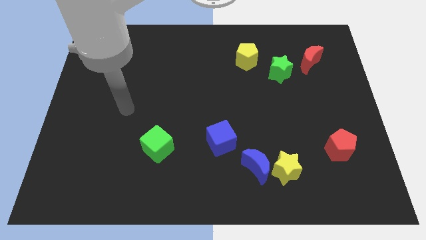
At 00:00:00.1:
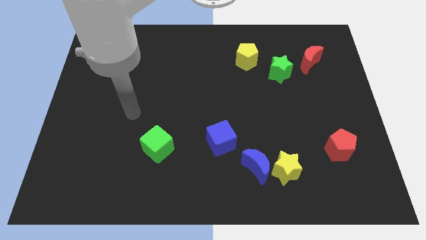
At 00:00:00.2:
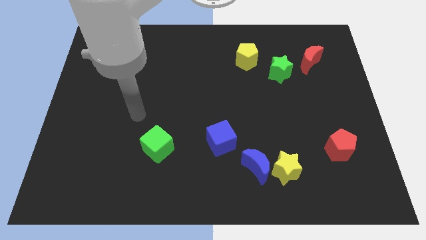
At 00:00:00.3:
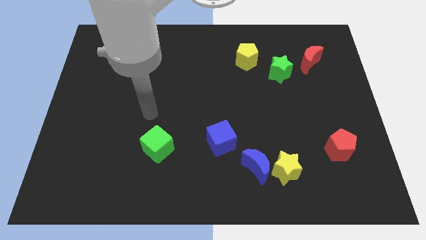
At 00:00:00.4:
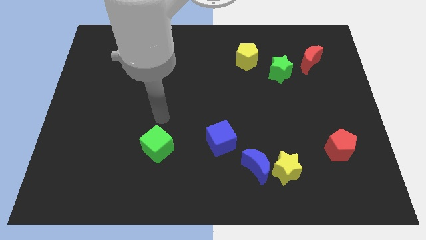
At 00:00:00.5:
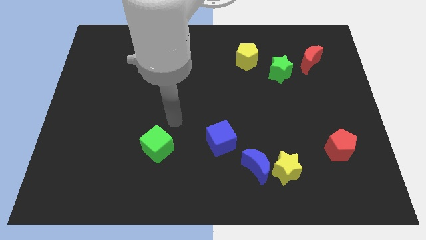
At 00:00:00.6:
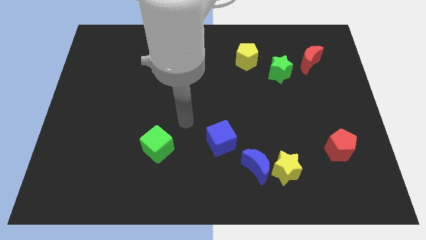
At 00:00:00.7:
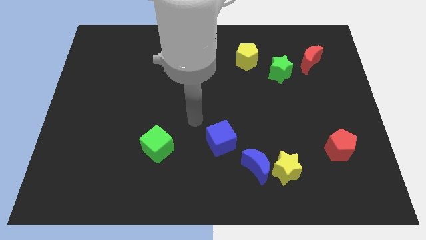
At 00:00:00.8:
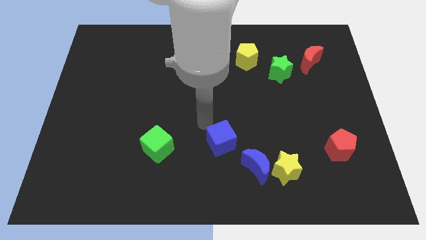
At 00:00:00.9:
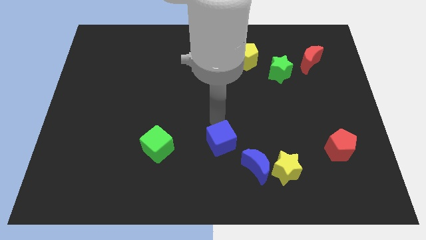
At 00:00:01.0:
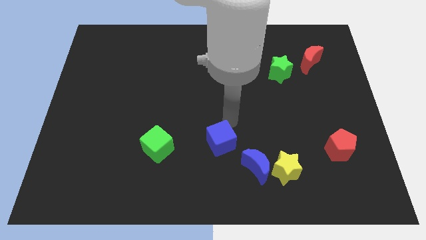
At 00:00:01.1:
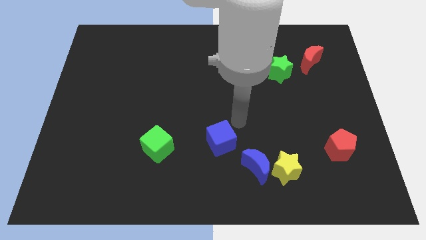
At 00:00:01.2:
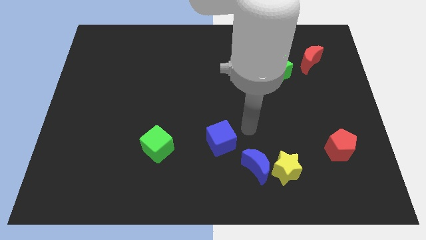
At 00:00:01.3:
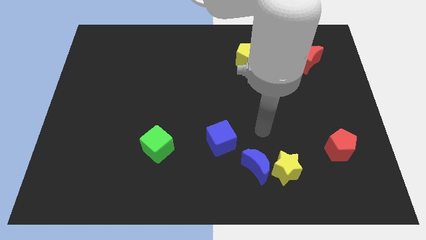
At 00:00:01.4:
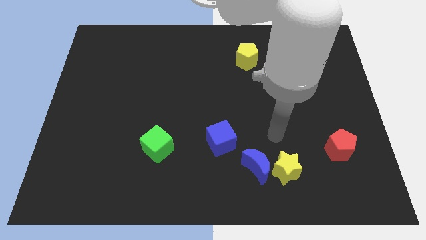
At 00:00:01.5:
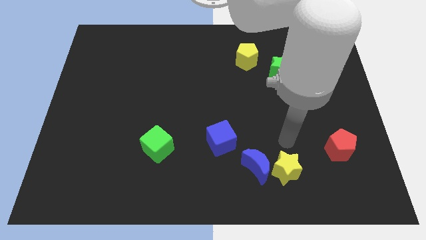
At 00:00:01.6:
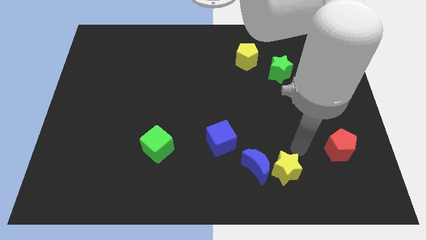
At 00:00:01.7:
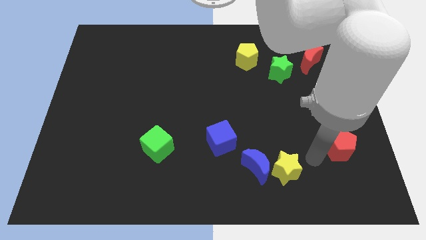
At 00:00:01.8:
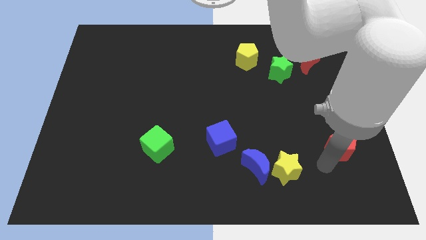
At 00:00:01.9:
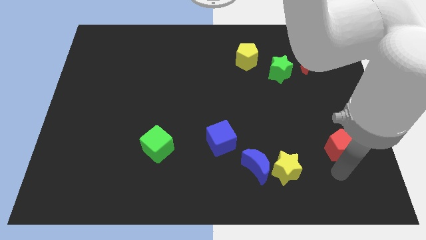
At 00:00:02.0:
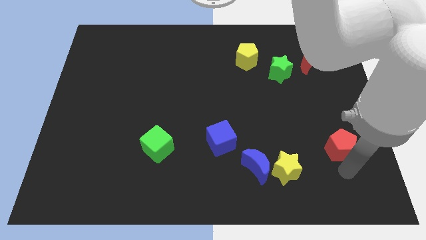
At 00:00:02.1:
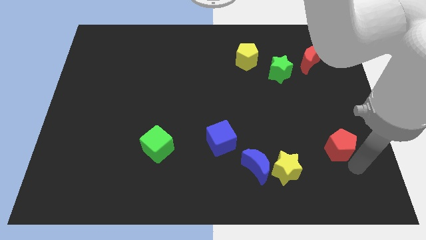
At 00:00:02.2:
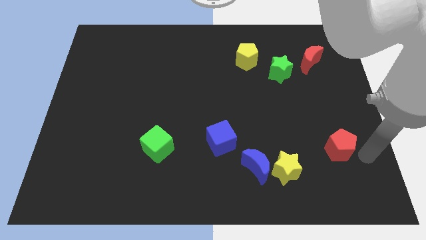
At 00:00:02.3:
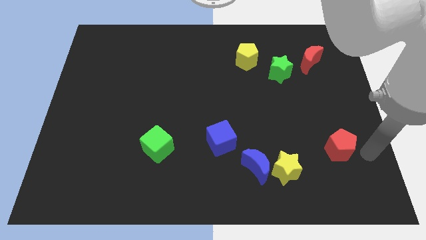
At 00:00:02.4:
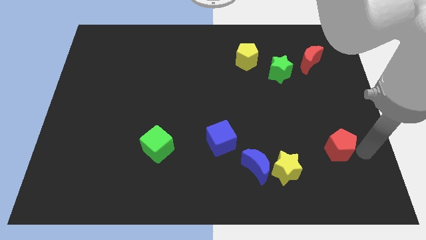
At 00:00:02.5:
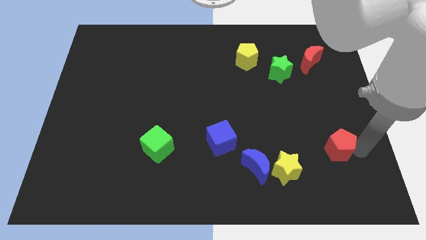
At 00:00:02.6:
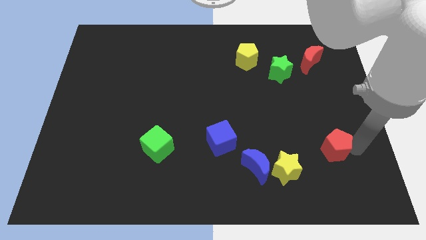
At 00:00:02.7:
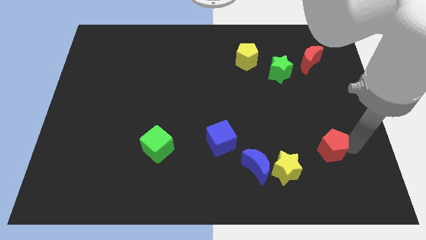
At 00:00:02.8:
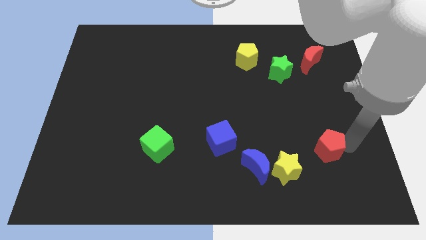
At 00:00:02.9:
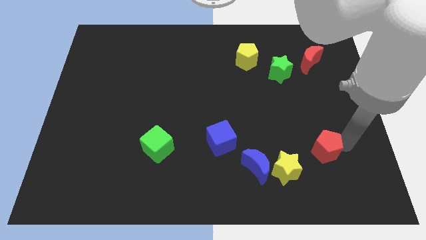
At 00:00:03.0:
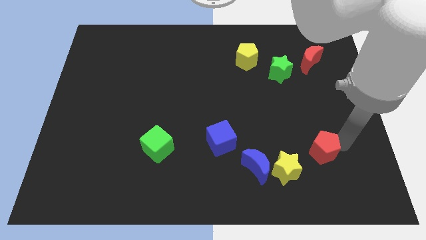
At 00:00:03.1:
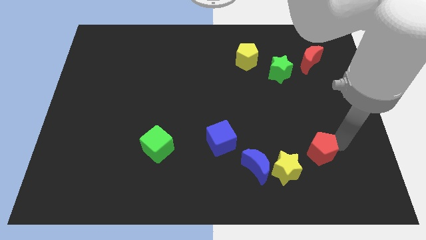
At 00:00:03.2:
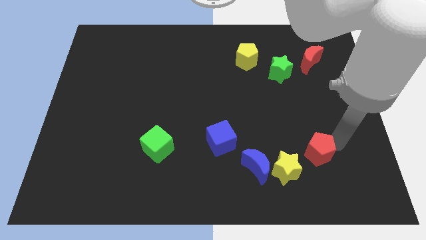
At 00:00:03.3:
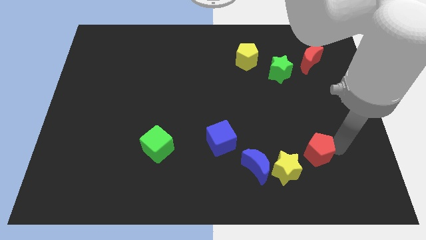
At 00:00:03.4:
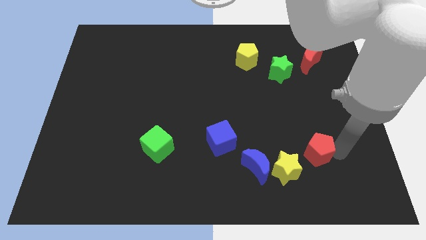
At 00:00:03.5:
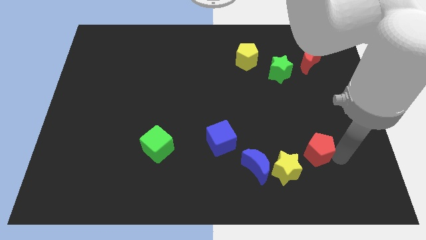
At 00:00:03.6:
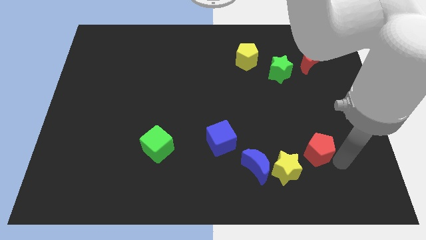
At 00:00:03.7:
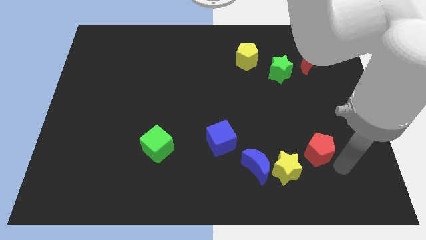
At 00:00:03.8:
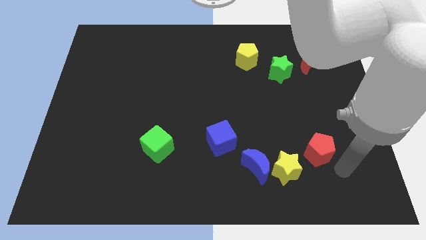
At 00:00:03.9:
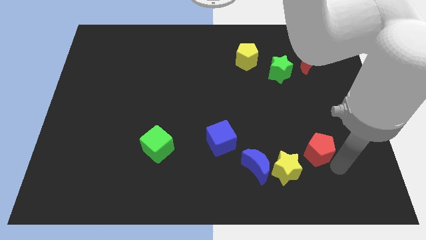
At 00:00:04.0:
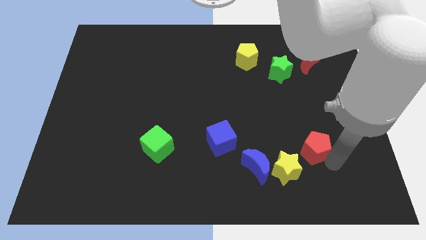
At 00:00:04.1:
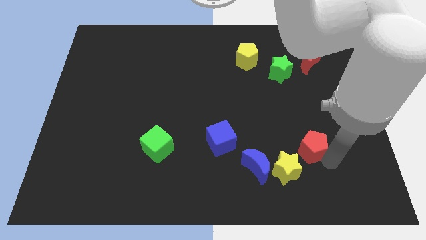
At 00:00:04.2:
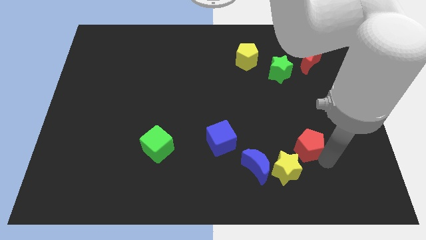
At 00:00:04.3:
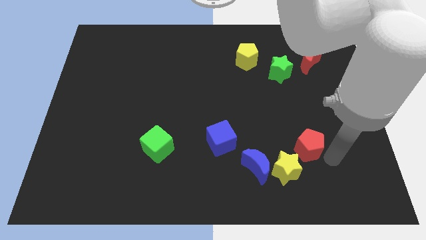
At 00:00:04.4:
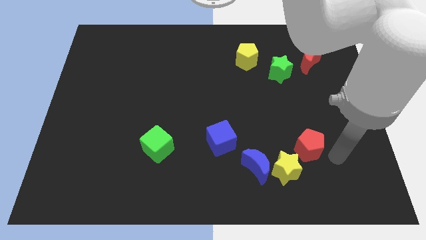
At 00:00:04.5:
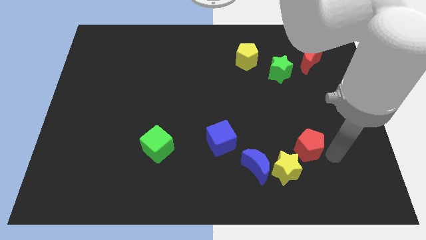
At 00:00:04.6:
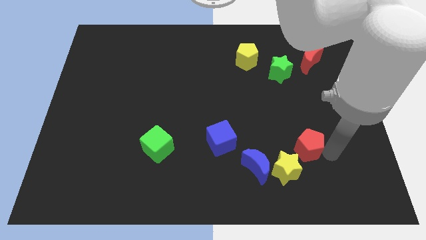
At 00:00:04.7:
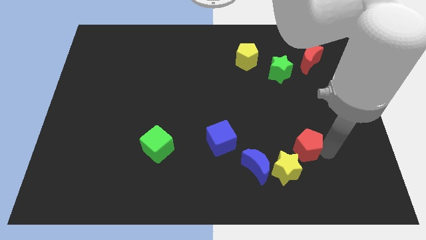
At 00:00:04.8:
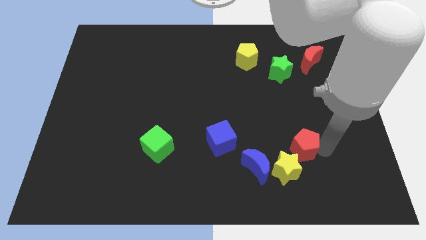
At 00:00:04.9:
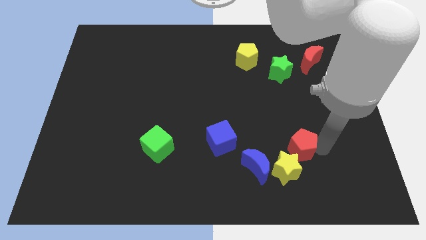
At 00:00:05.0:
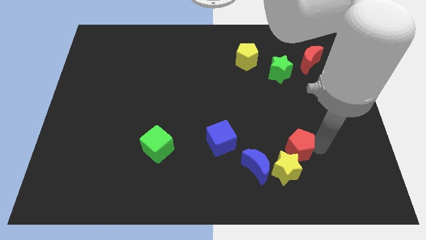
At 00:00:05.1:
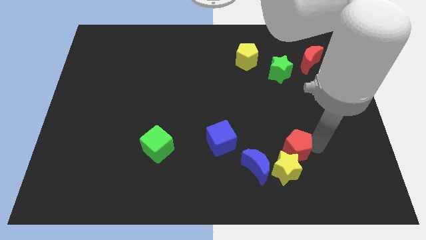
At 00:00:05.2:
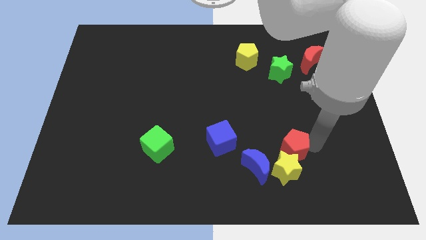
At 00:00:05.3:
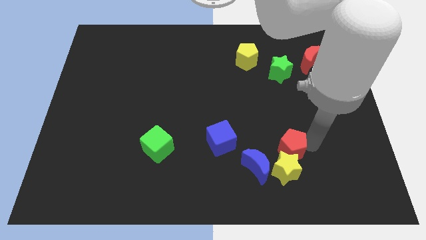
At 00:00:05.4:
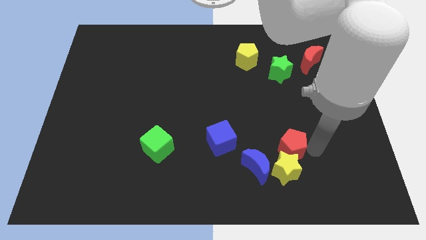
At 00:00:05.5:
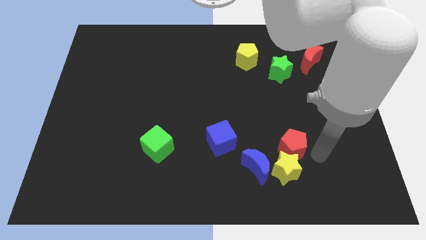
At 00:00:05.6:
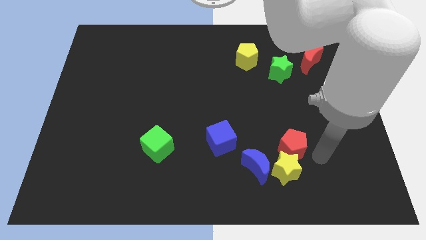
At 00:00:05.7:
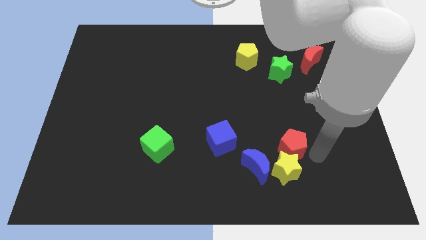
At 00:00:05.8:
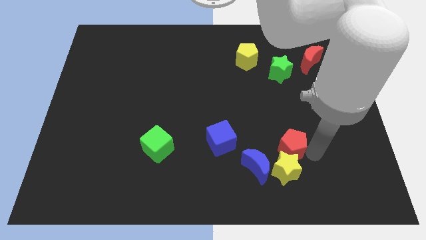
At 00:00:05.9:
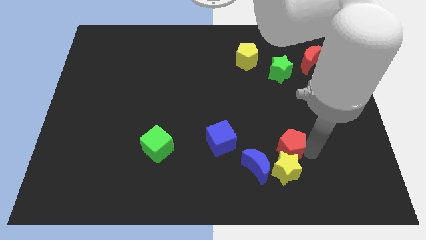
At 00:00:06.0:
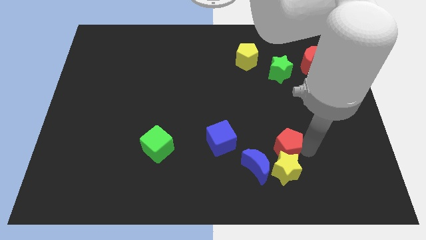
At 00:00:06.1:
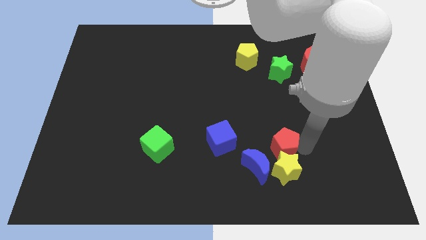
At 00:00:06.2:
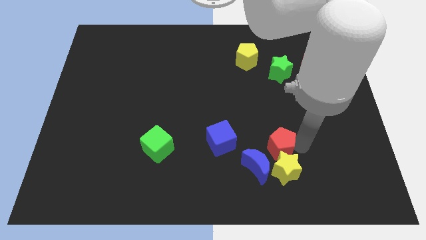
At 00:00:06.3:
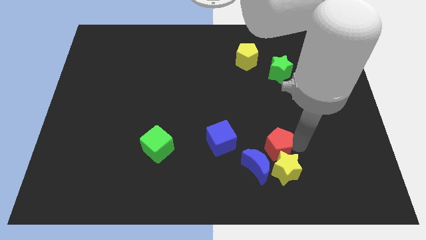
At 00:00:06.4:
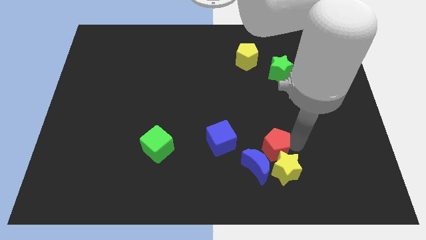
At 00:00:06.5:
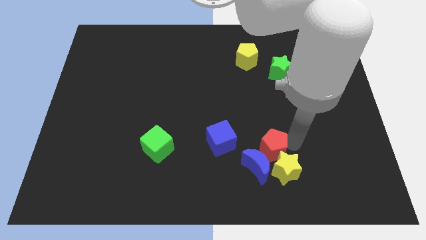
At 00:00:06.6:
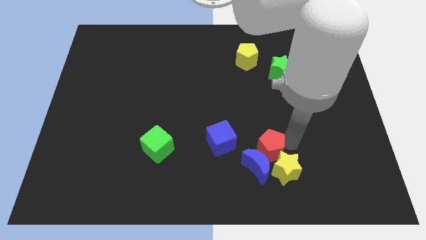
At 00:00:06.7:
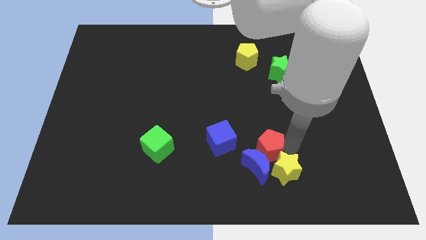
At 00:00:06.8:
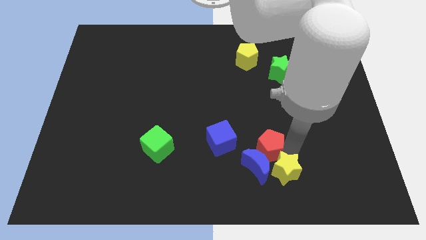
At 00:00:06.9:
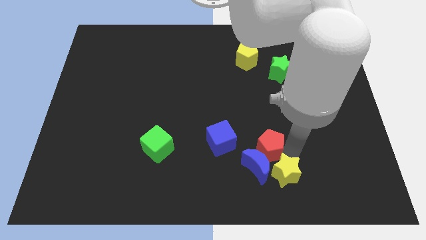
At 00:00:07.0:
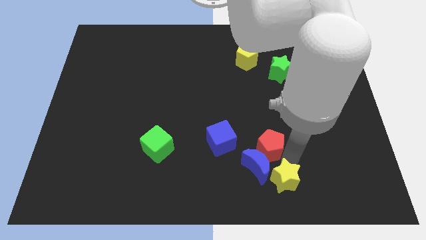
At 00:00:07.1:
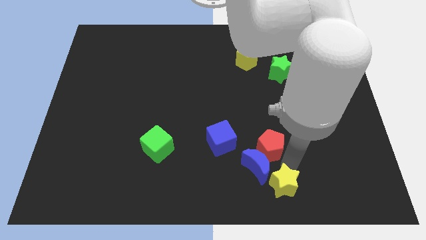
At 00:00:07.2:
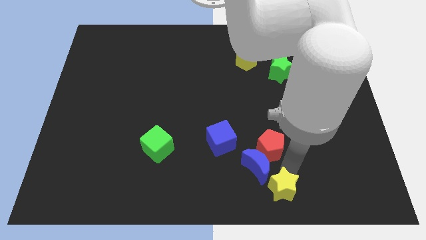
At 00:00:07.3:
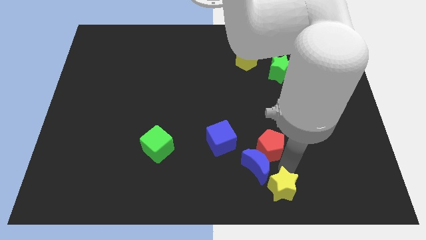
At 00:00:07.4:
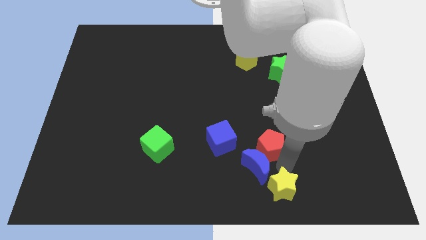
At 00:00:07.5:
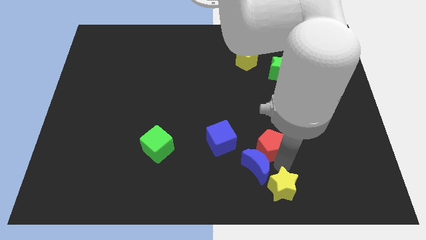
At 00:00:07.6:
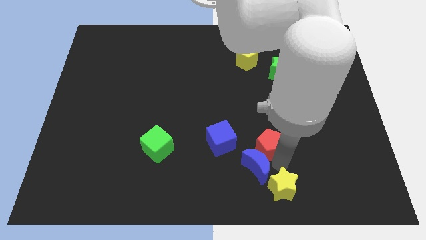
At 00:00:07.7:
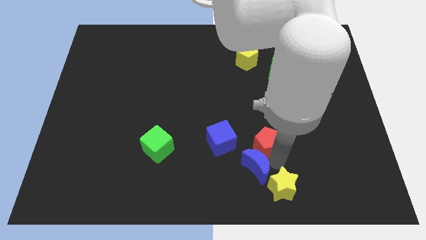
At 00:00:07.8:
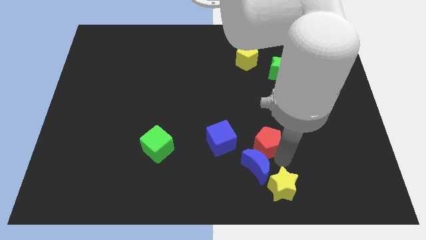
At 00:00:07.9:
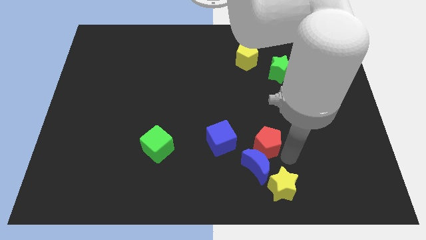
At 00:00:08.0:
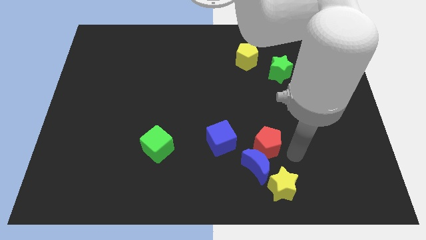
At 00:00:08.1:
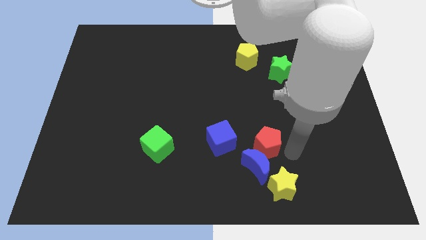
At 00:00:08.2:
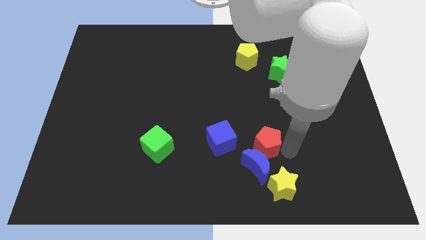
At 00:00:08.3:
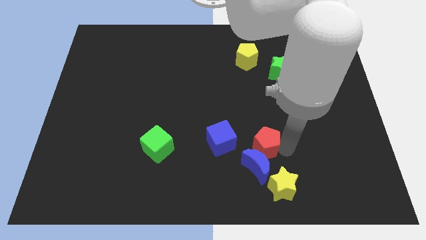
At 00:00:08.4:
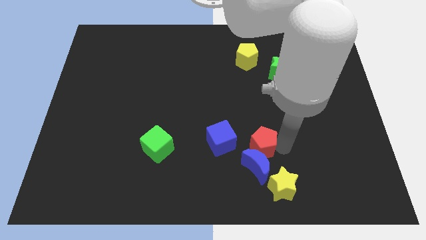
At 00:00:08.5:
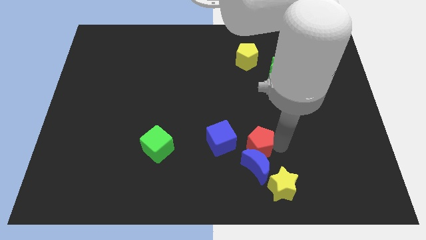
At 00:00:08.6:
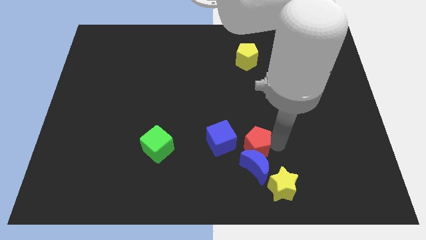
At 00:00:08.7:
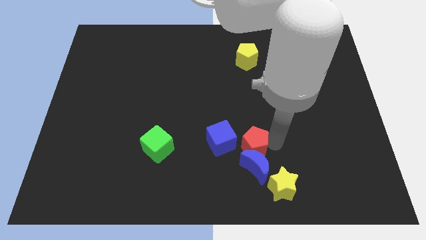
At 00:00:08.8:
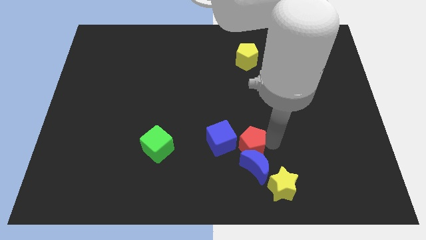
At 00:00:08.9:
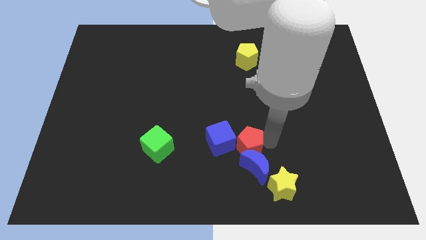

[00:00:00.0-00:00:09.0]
push the red pentagon to the blue cube
